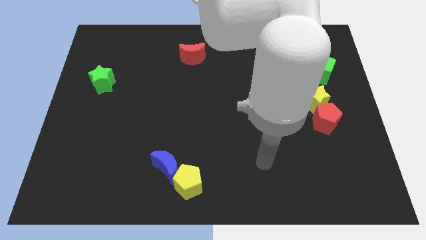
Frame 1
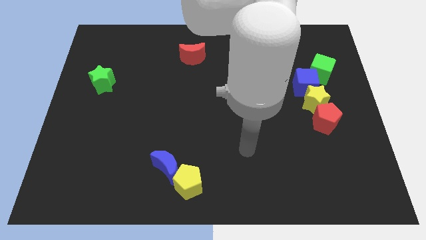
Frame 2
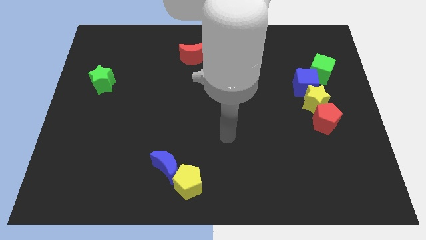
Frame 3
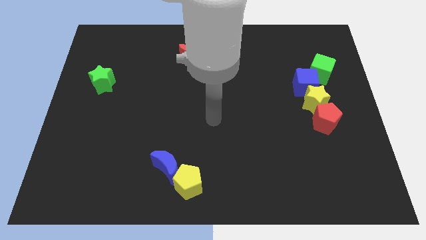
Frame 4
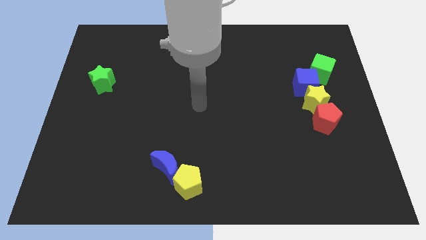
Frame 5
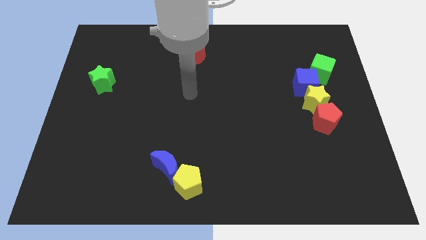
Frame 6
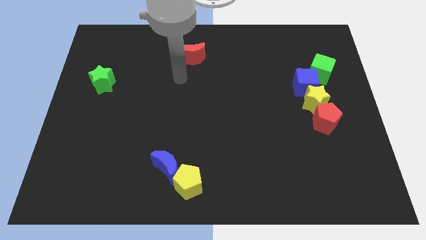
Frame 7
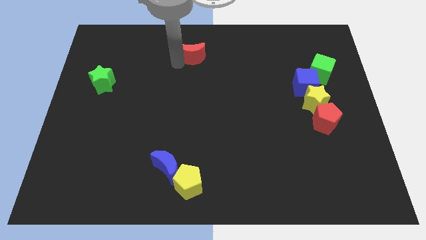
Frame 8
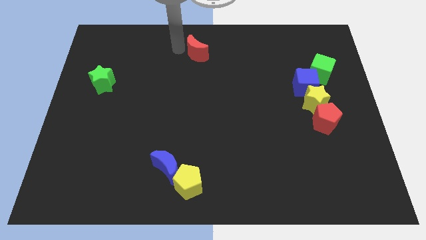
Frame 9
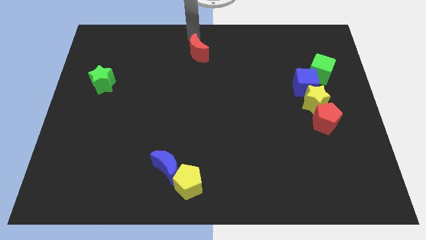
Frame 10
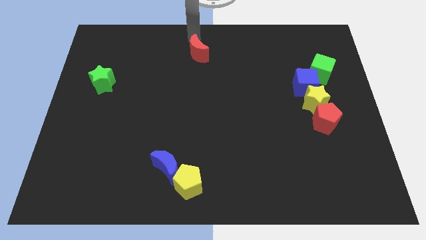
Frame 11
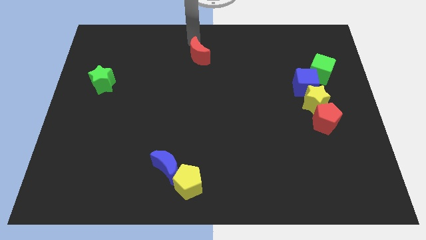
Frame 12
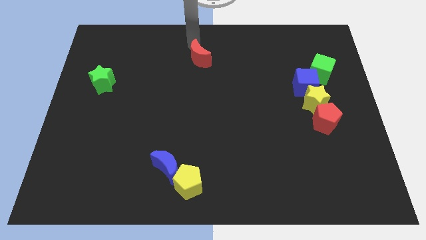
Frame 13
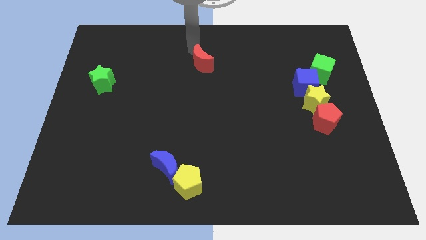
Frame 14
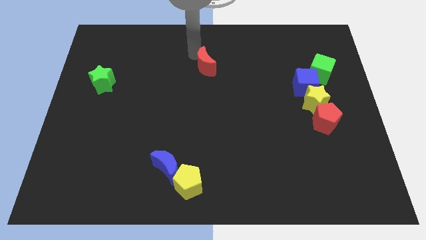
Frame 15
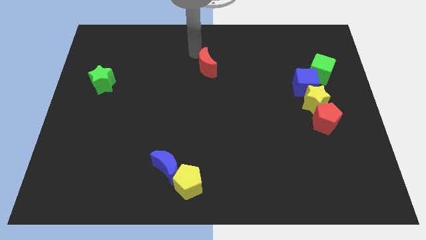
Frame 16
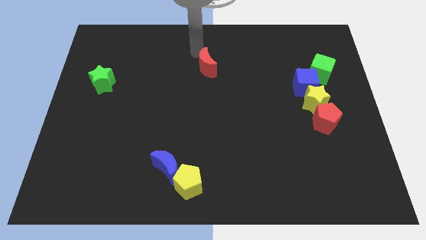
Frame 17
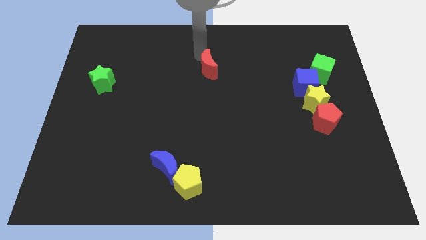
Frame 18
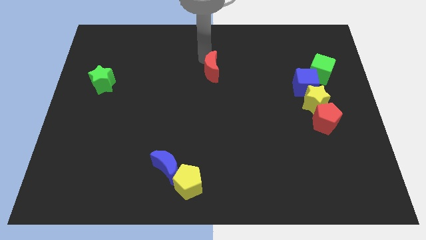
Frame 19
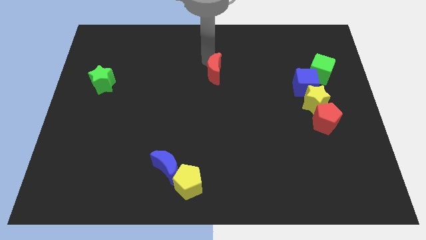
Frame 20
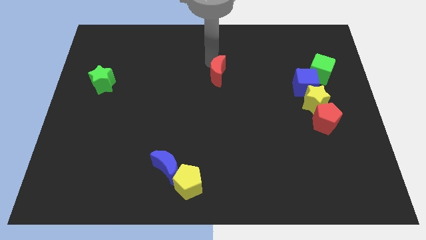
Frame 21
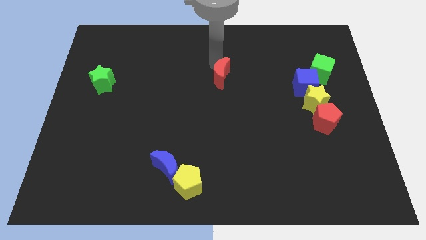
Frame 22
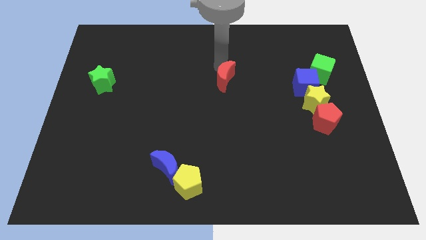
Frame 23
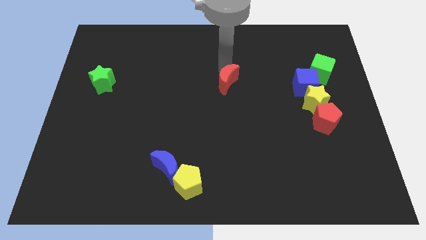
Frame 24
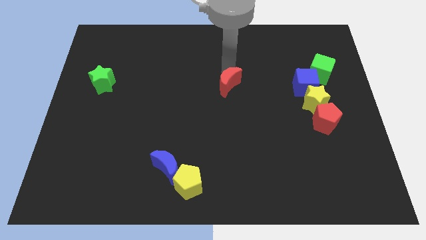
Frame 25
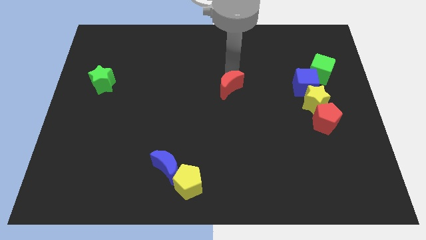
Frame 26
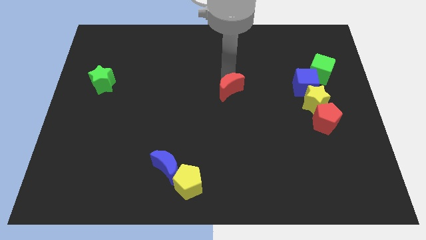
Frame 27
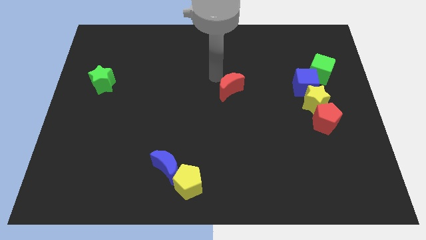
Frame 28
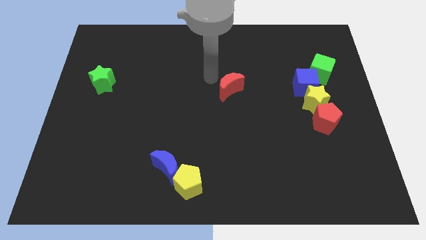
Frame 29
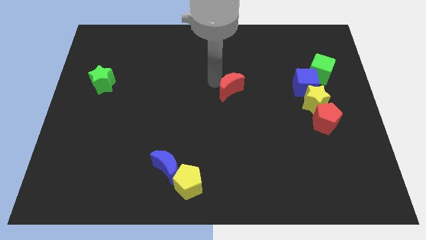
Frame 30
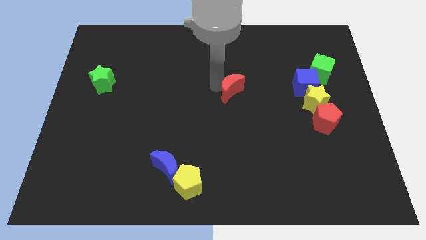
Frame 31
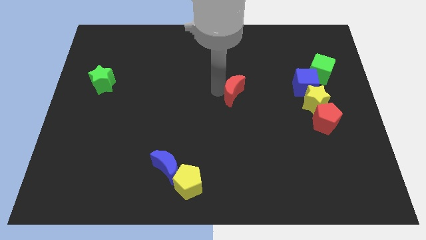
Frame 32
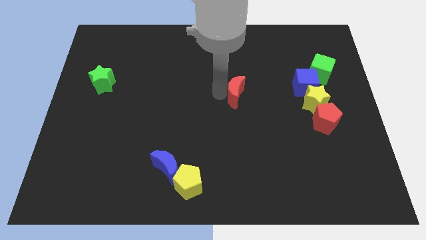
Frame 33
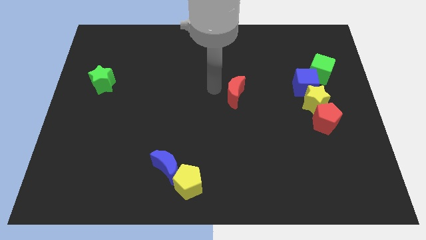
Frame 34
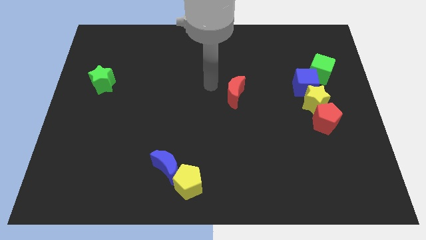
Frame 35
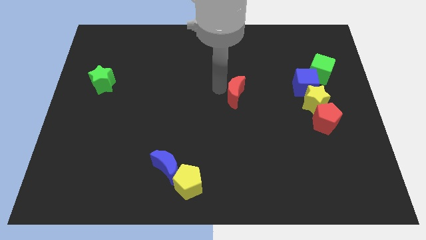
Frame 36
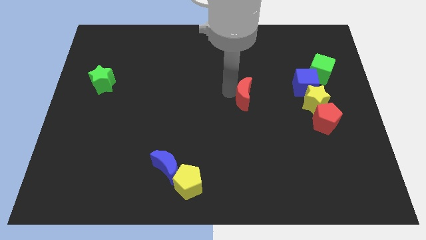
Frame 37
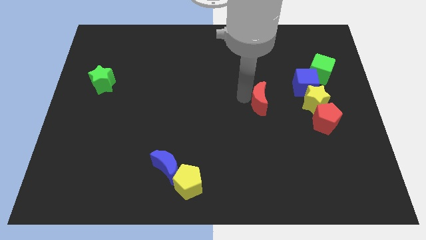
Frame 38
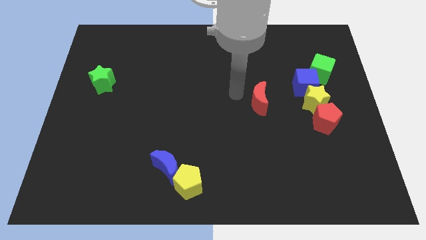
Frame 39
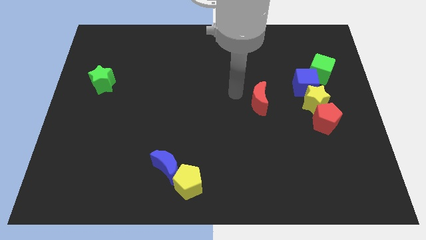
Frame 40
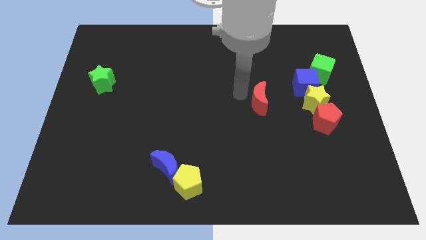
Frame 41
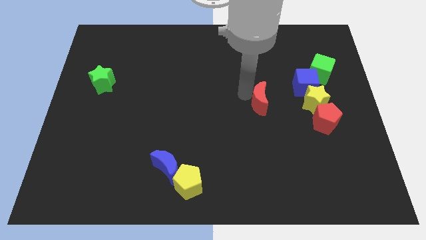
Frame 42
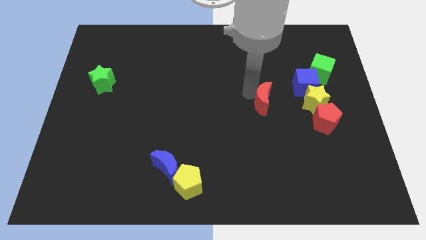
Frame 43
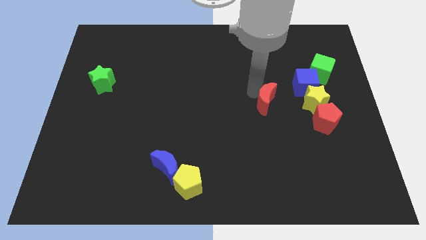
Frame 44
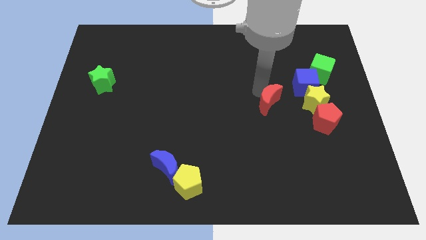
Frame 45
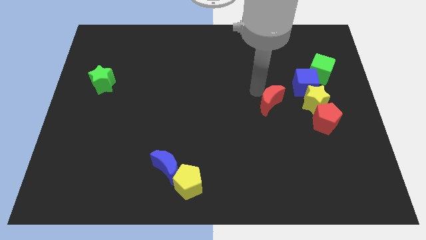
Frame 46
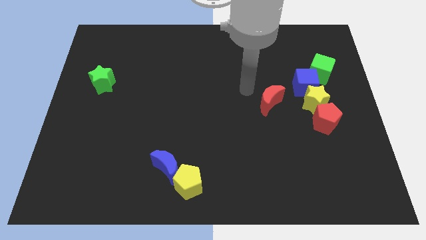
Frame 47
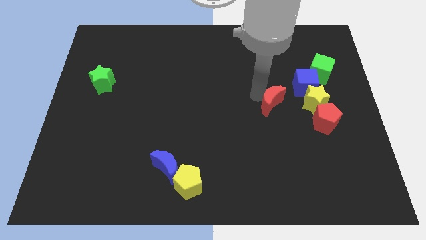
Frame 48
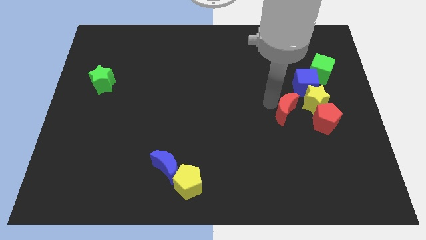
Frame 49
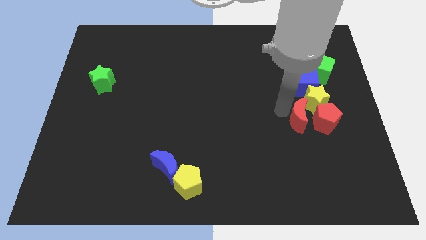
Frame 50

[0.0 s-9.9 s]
put the red moon towards the red pentagon

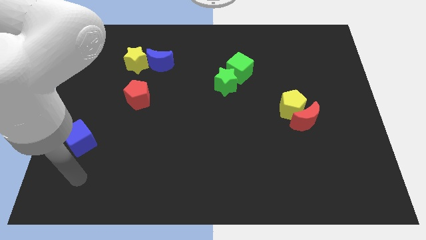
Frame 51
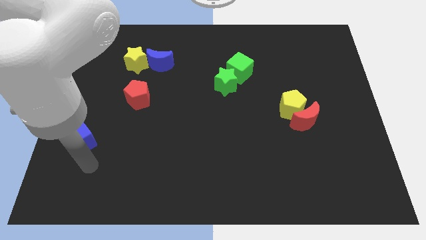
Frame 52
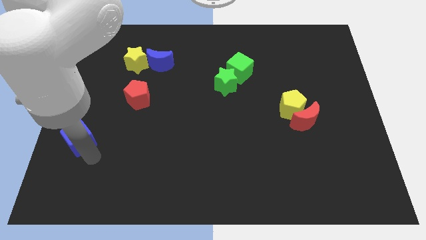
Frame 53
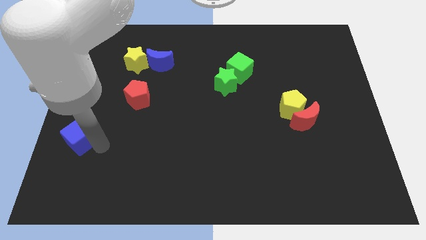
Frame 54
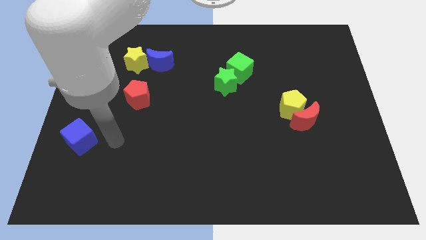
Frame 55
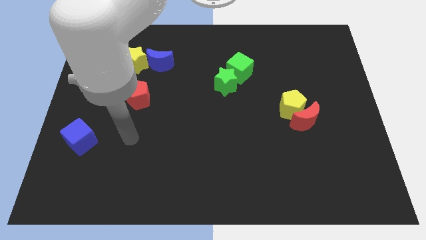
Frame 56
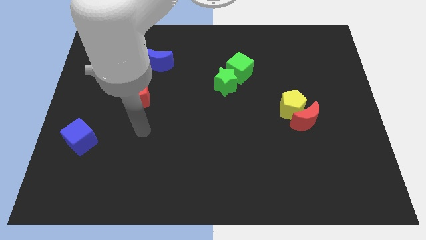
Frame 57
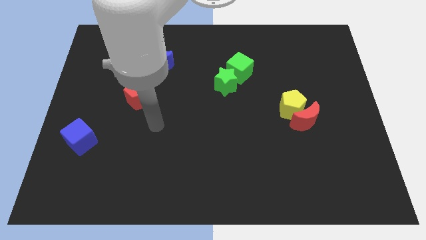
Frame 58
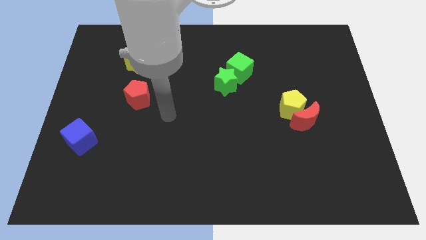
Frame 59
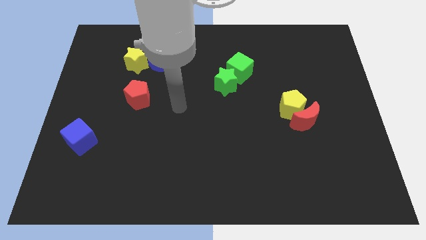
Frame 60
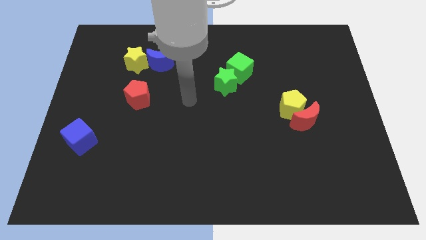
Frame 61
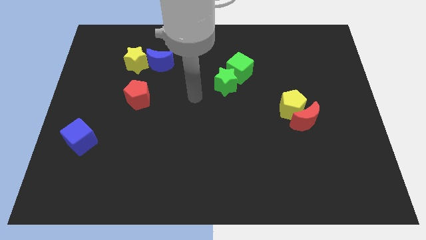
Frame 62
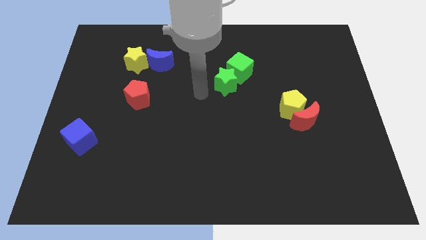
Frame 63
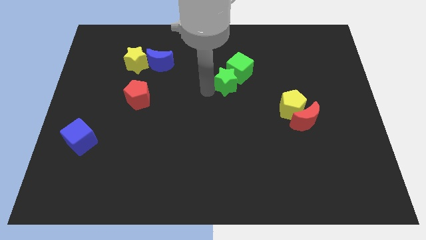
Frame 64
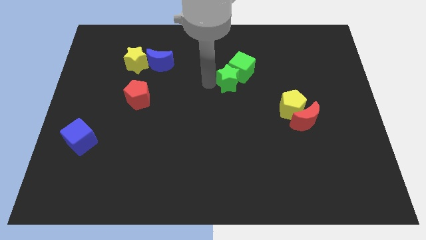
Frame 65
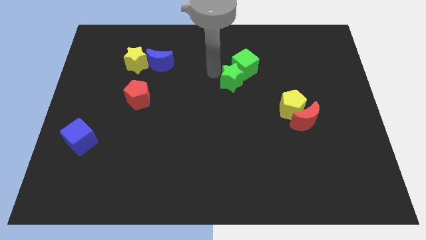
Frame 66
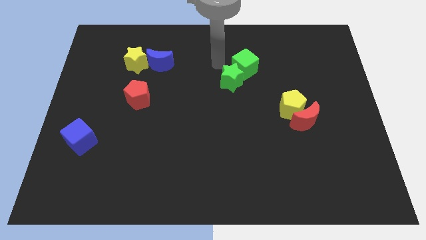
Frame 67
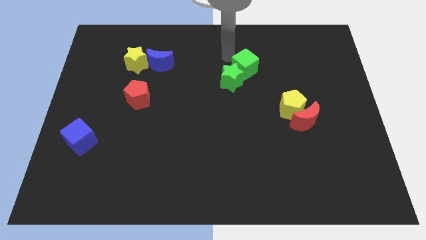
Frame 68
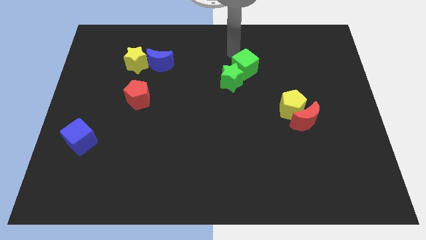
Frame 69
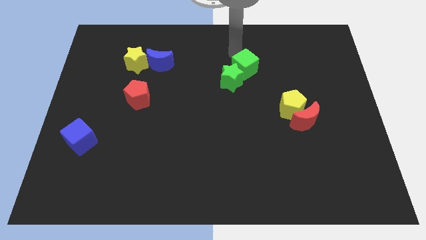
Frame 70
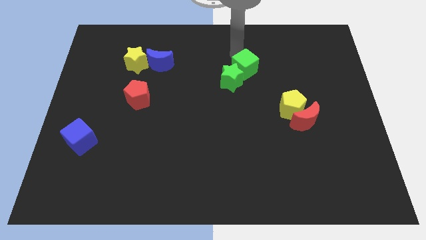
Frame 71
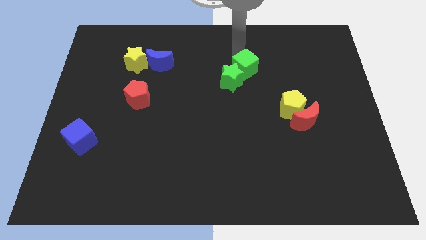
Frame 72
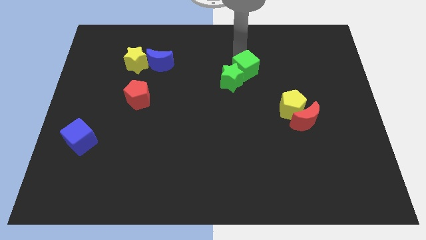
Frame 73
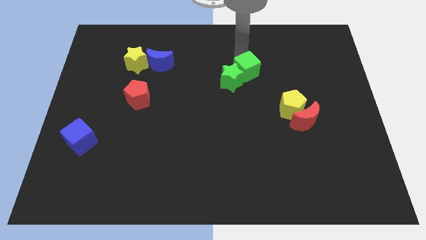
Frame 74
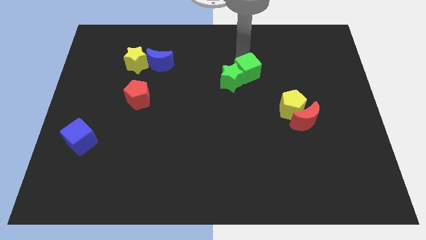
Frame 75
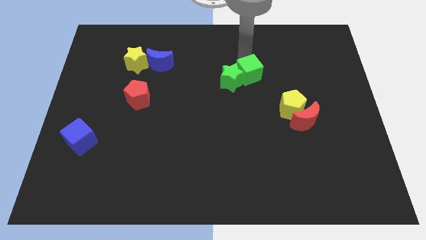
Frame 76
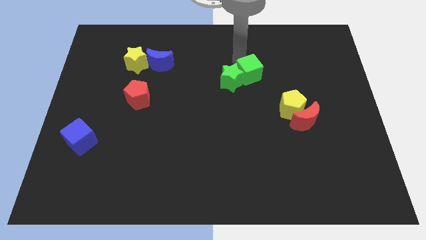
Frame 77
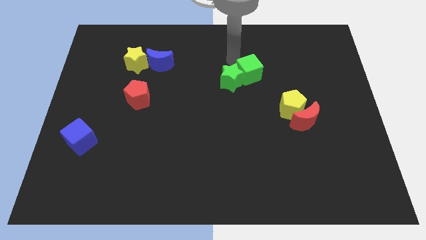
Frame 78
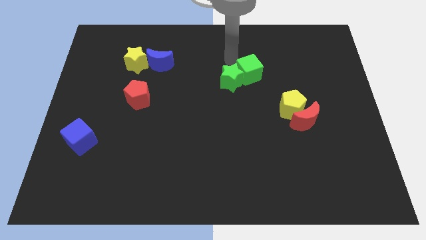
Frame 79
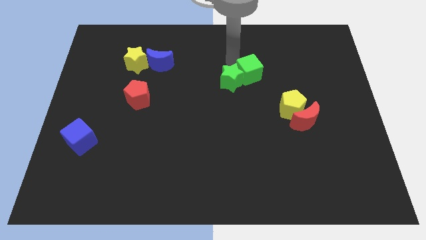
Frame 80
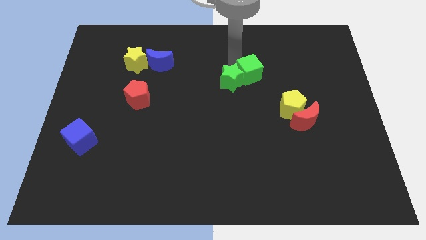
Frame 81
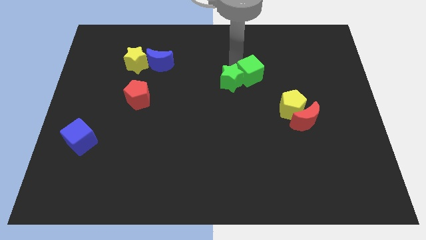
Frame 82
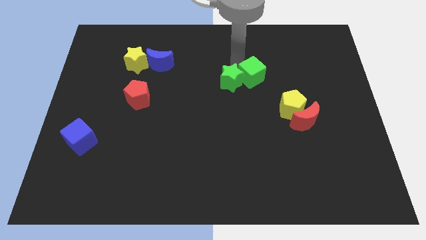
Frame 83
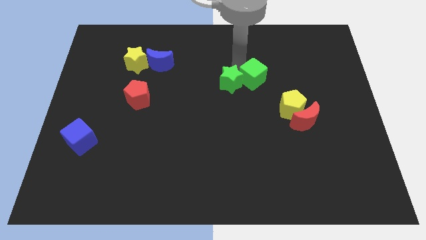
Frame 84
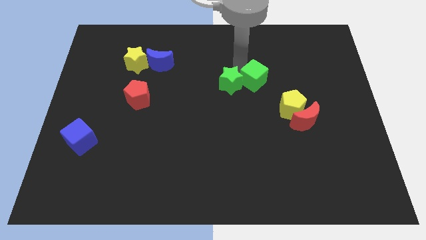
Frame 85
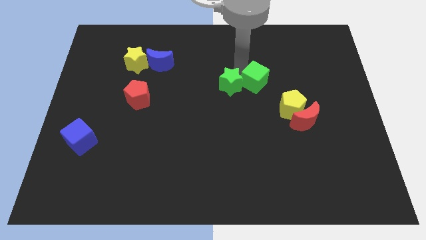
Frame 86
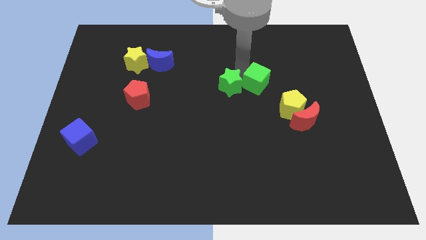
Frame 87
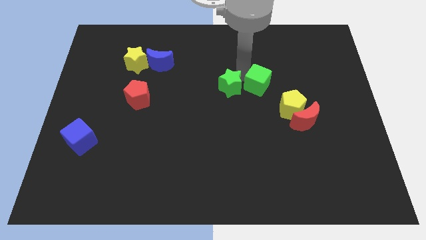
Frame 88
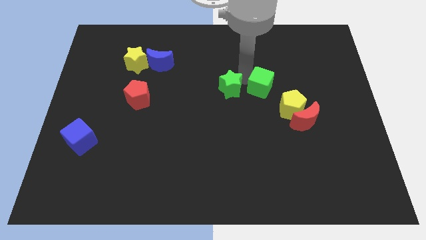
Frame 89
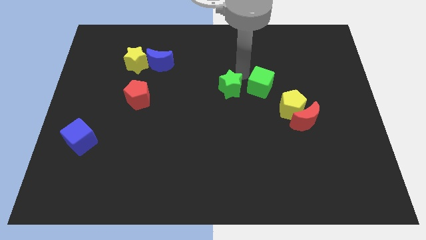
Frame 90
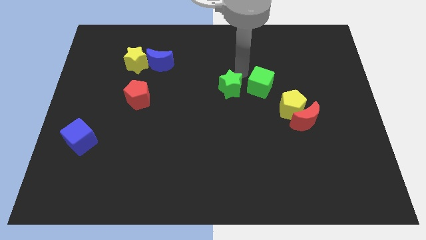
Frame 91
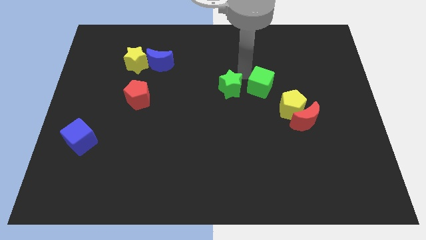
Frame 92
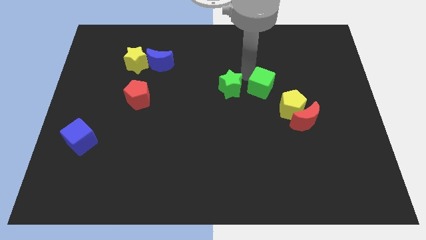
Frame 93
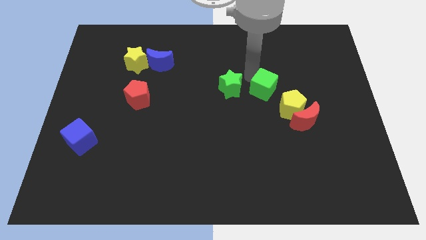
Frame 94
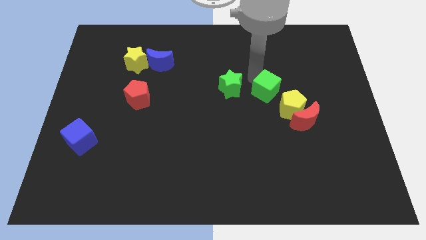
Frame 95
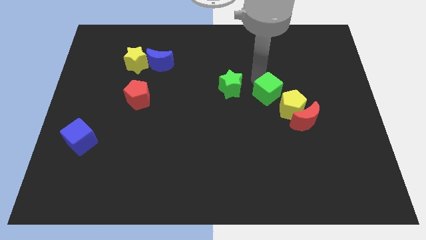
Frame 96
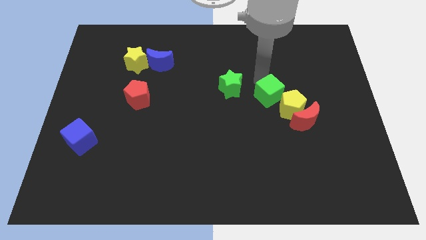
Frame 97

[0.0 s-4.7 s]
push the green cube to the yellow pentagon
